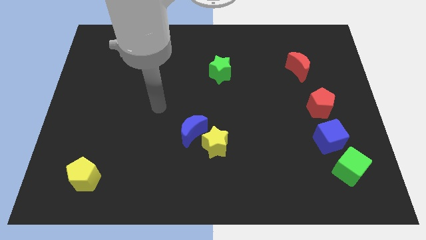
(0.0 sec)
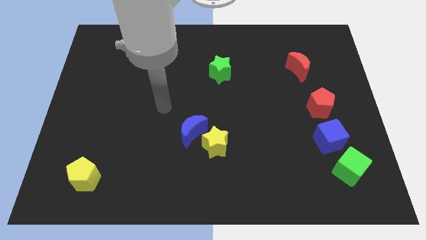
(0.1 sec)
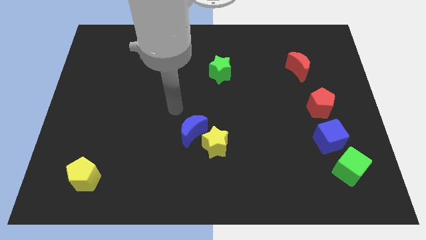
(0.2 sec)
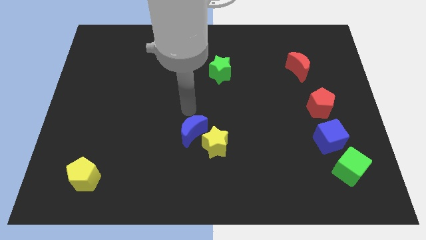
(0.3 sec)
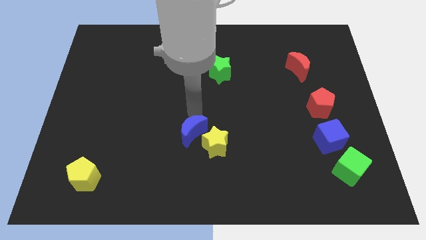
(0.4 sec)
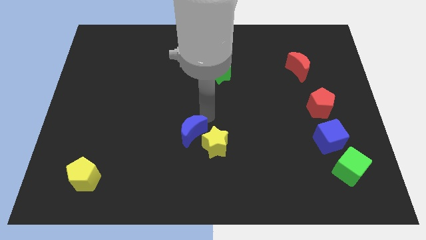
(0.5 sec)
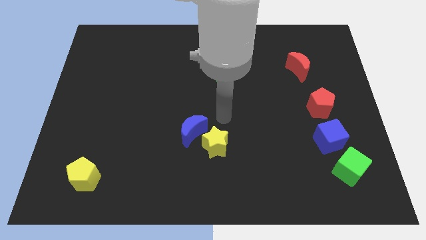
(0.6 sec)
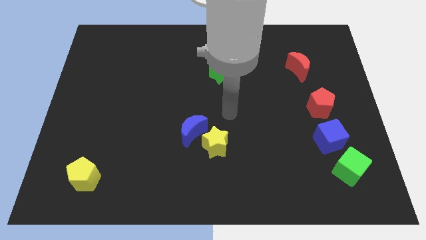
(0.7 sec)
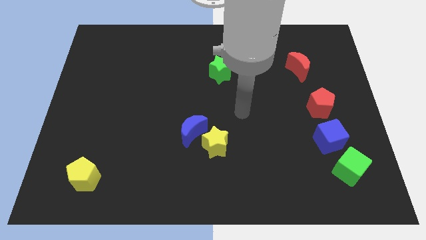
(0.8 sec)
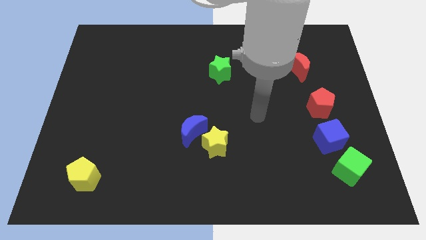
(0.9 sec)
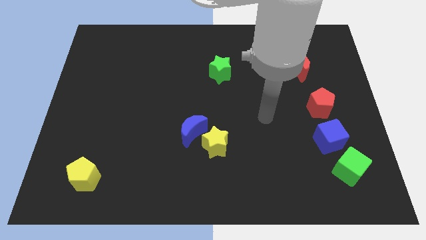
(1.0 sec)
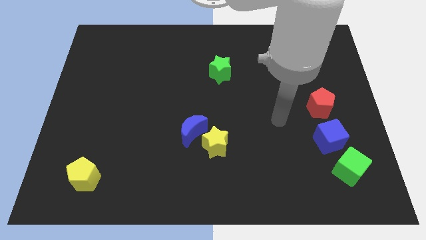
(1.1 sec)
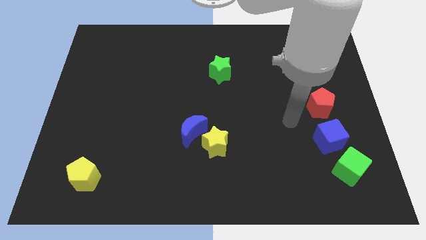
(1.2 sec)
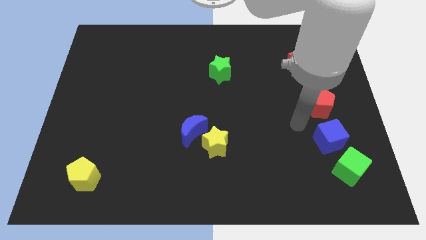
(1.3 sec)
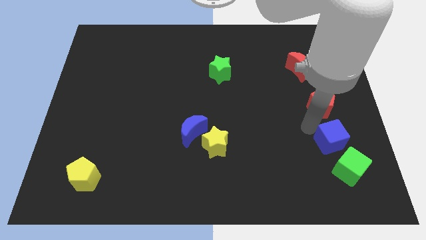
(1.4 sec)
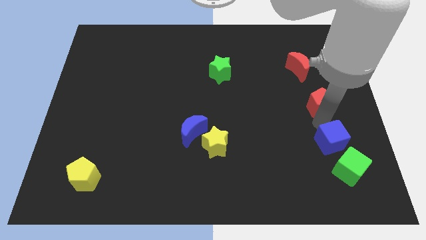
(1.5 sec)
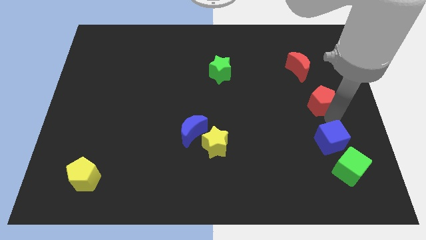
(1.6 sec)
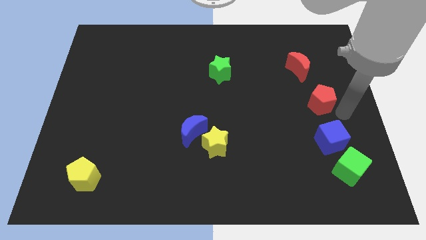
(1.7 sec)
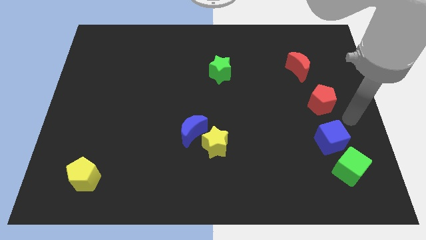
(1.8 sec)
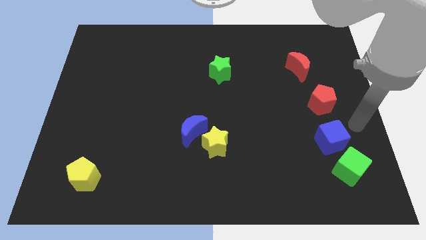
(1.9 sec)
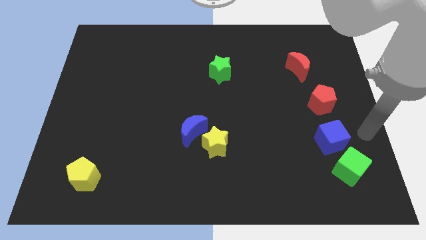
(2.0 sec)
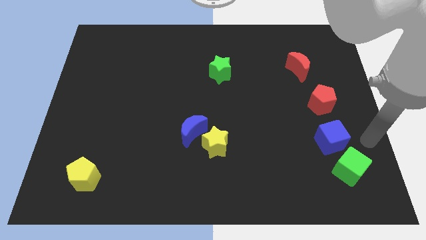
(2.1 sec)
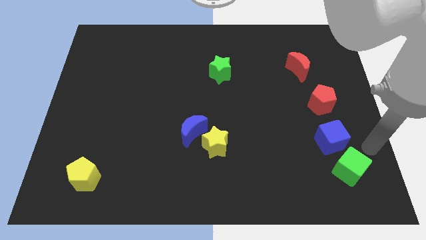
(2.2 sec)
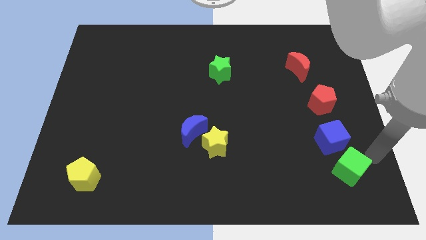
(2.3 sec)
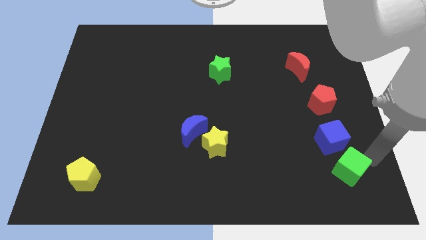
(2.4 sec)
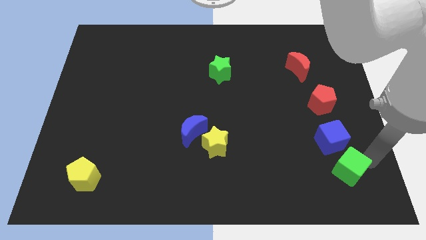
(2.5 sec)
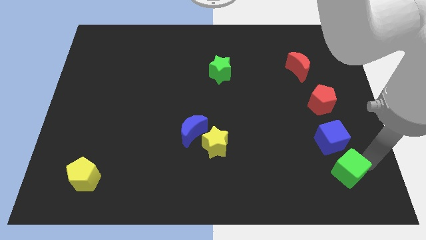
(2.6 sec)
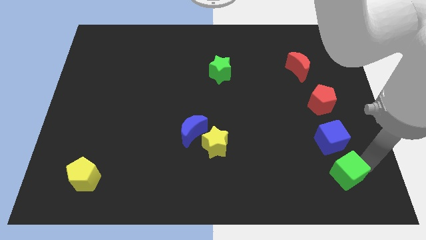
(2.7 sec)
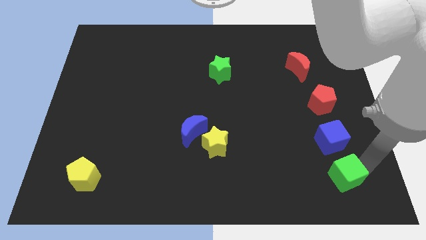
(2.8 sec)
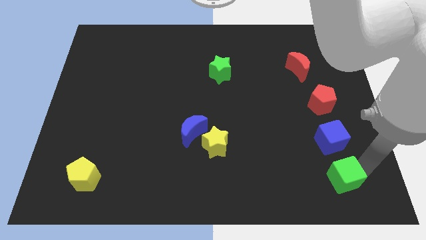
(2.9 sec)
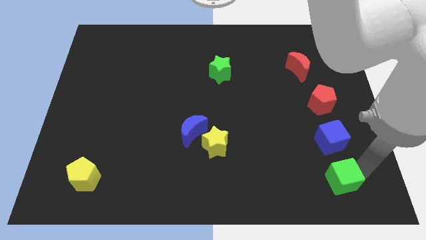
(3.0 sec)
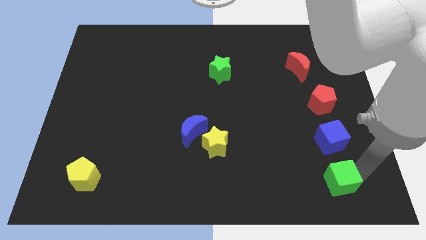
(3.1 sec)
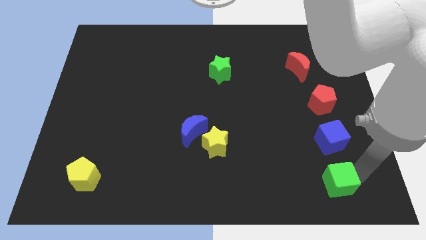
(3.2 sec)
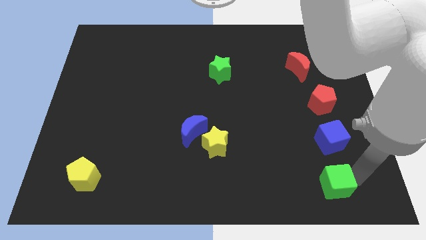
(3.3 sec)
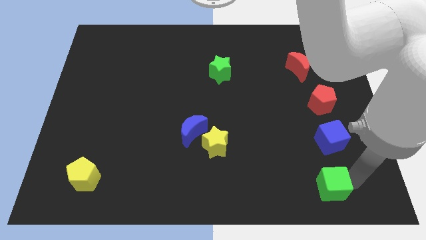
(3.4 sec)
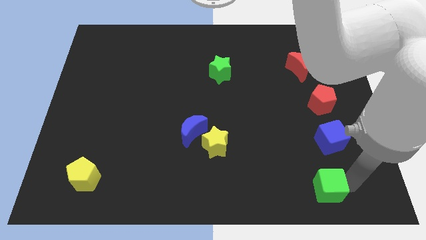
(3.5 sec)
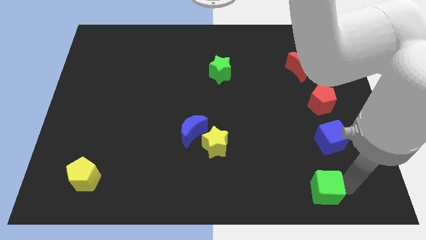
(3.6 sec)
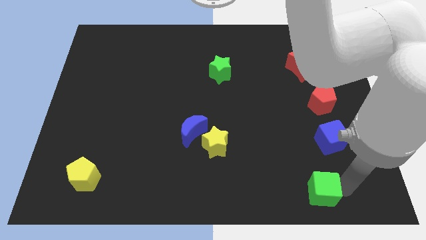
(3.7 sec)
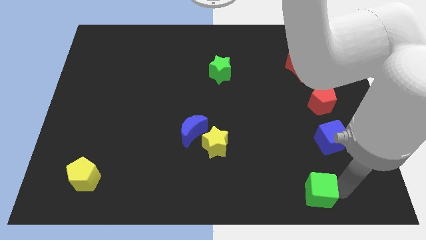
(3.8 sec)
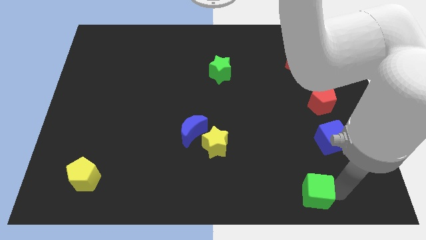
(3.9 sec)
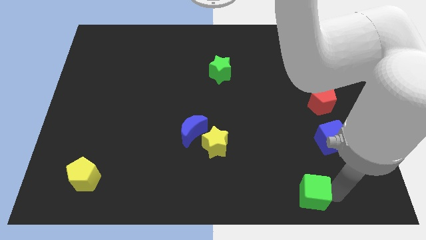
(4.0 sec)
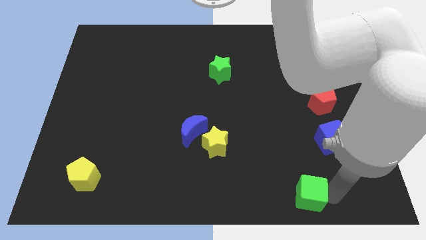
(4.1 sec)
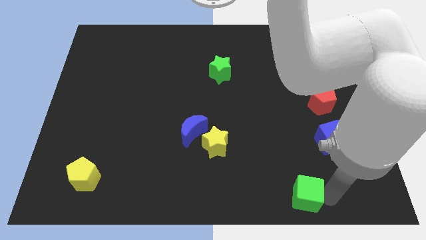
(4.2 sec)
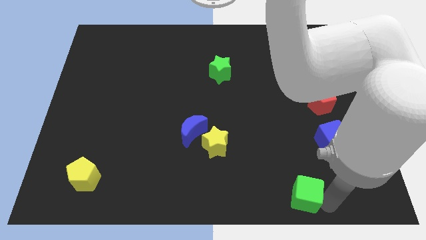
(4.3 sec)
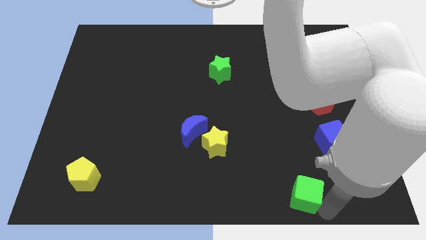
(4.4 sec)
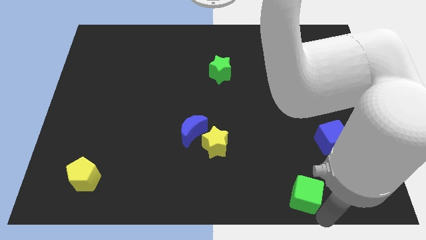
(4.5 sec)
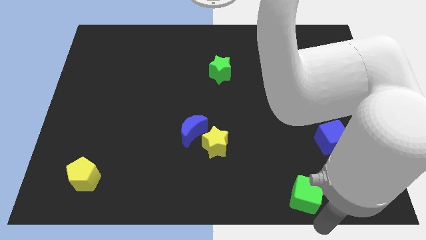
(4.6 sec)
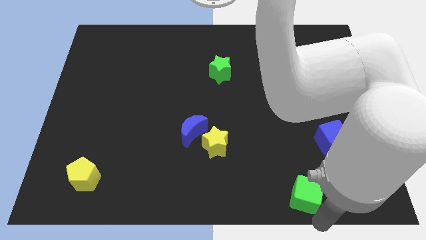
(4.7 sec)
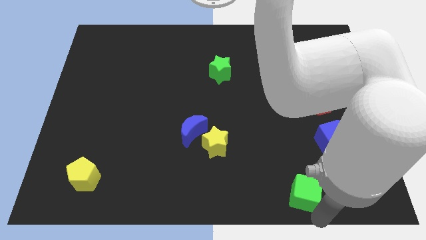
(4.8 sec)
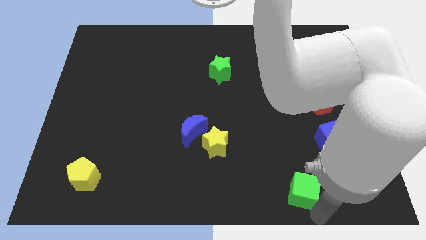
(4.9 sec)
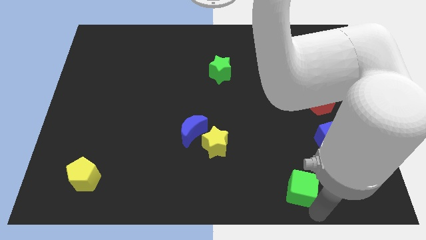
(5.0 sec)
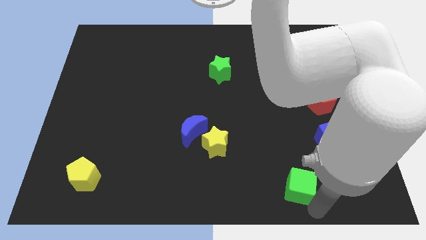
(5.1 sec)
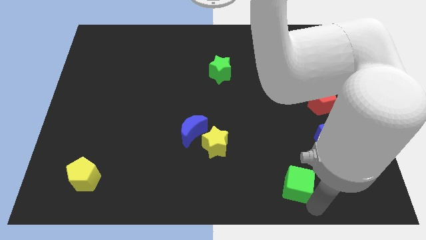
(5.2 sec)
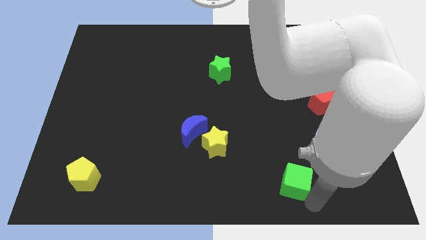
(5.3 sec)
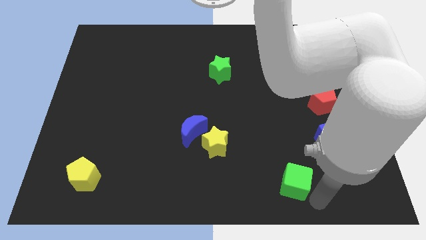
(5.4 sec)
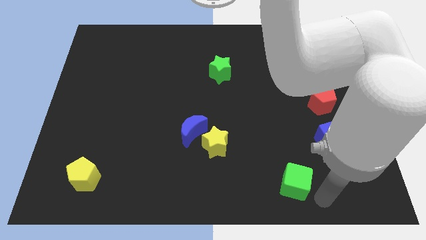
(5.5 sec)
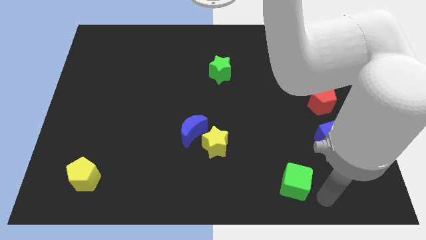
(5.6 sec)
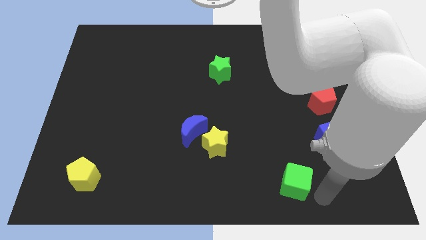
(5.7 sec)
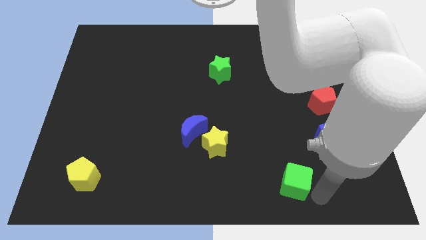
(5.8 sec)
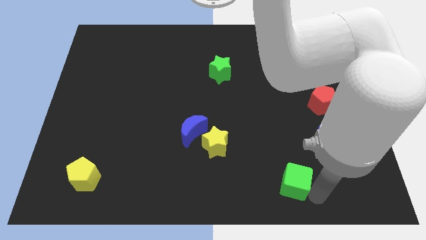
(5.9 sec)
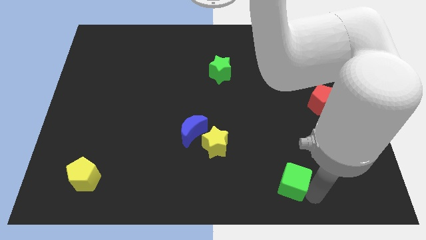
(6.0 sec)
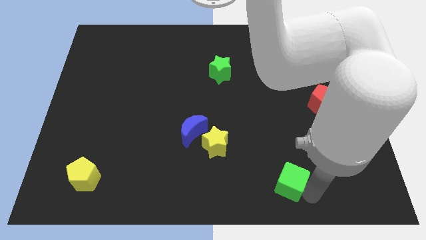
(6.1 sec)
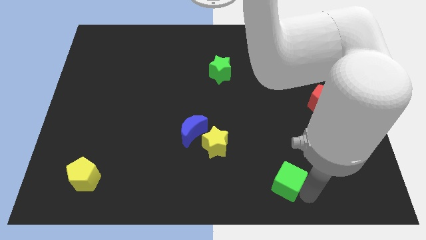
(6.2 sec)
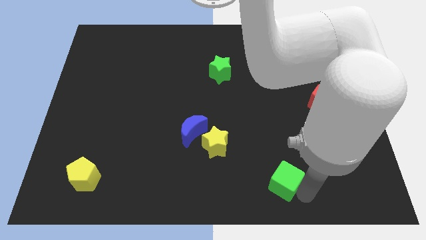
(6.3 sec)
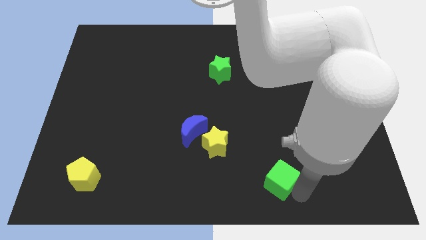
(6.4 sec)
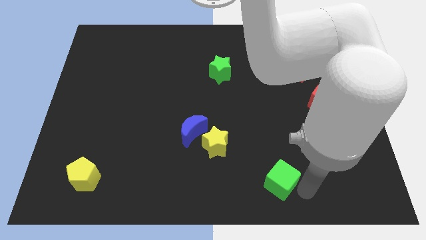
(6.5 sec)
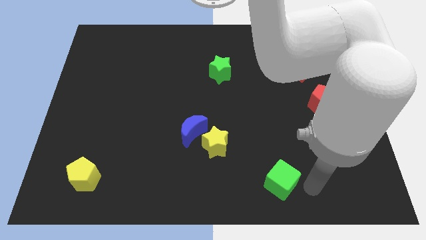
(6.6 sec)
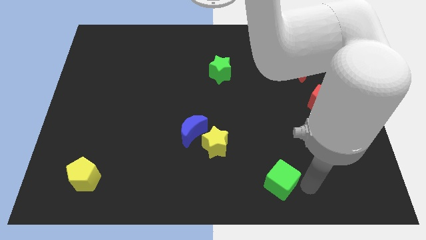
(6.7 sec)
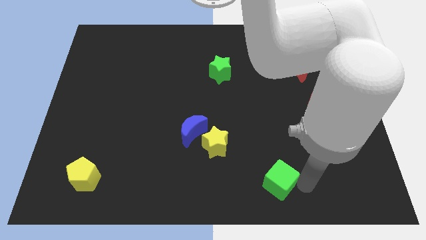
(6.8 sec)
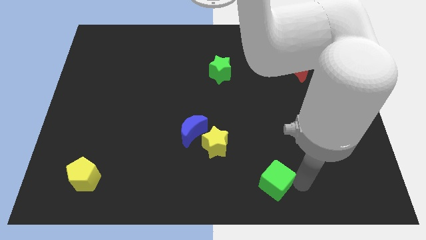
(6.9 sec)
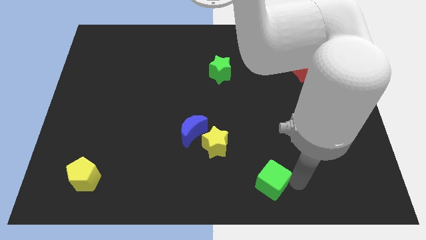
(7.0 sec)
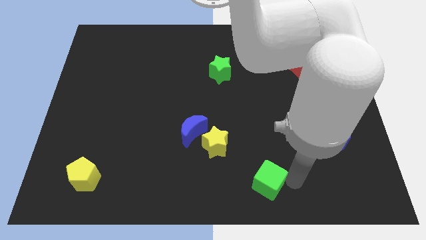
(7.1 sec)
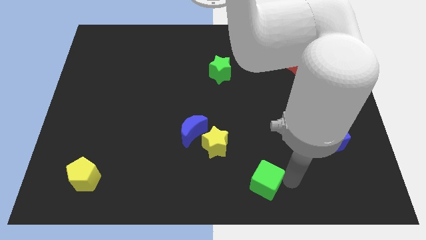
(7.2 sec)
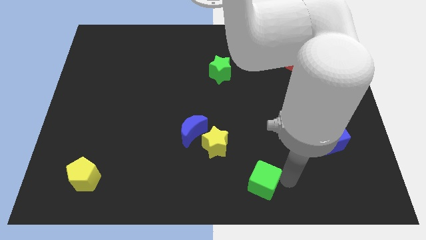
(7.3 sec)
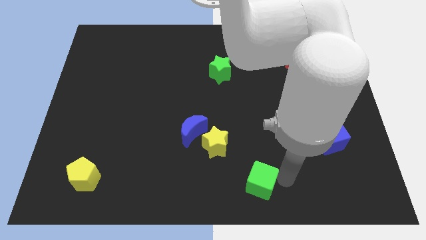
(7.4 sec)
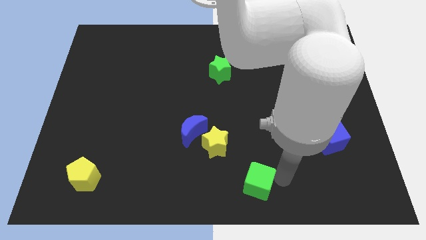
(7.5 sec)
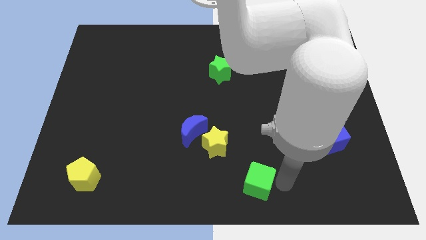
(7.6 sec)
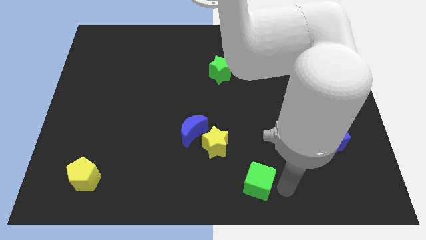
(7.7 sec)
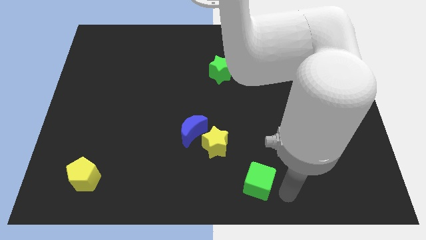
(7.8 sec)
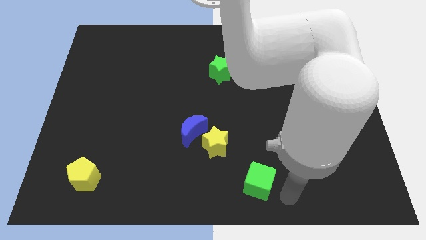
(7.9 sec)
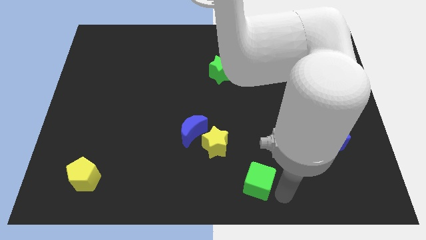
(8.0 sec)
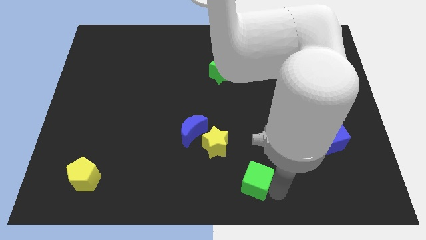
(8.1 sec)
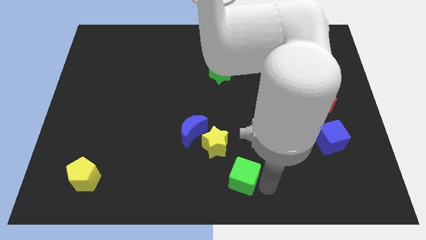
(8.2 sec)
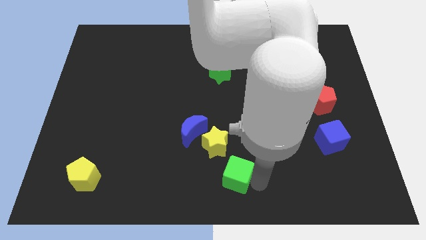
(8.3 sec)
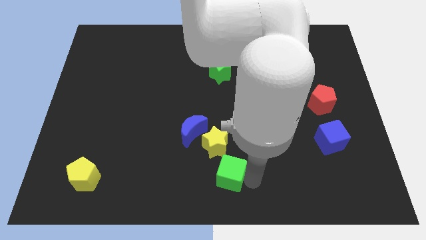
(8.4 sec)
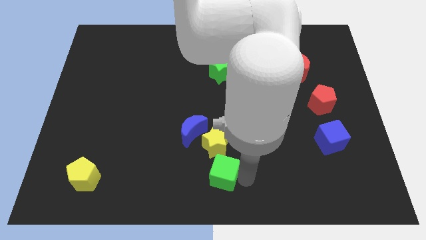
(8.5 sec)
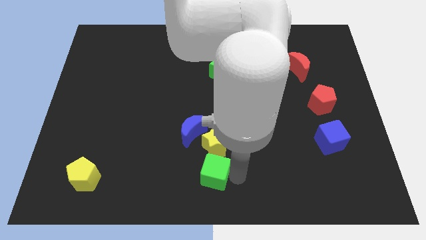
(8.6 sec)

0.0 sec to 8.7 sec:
slide the green cube to the bottom side of the blue moon
